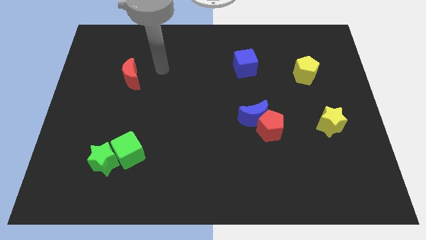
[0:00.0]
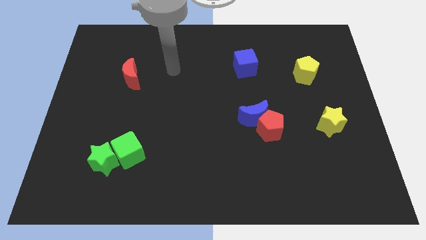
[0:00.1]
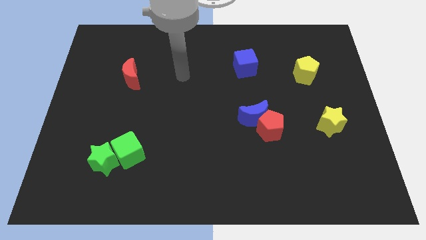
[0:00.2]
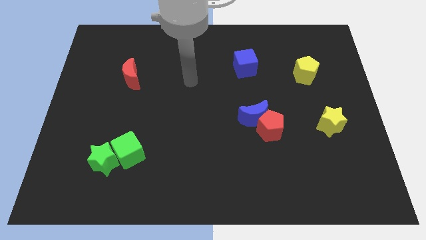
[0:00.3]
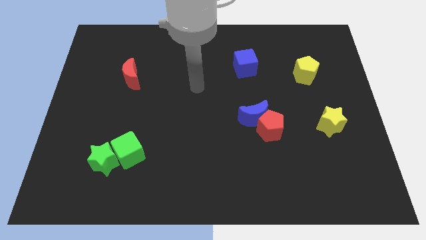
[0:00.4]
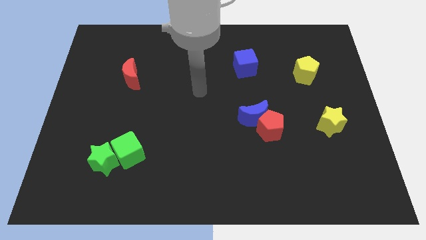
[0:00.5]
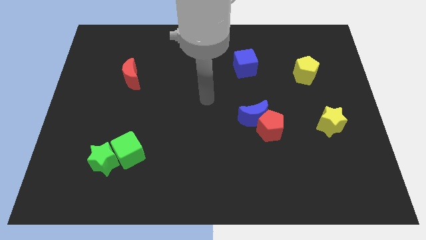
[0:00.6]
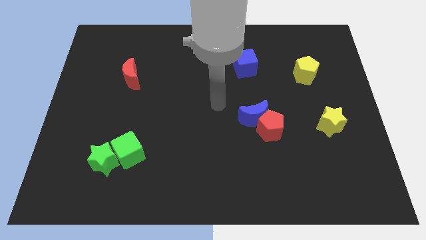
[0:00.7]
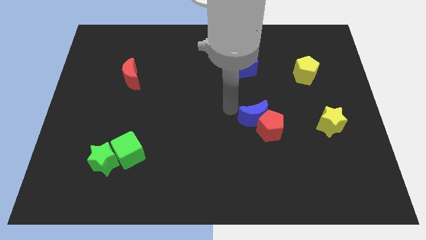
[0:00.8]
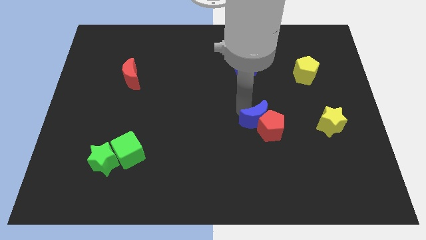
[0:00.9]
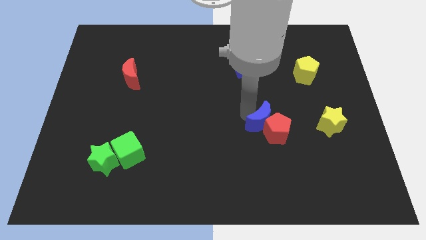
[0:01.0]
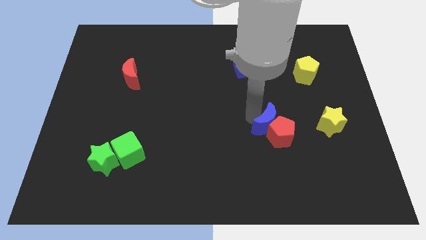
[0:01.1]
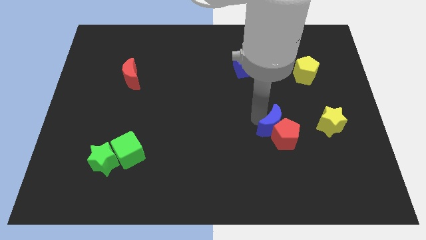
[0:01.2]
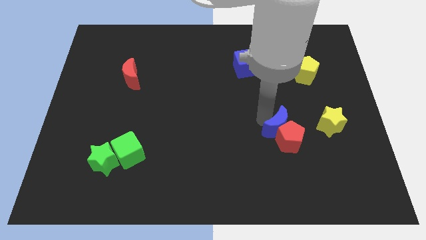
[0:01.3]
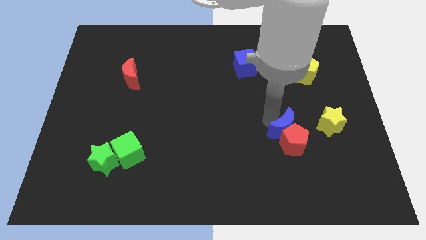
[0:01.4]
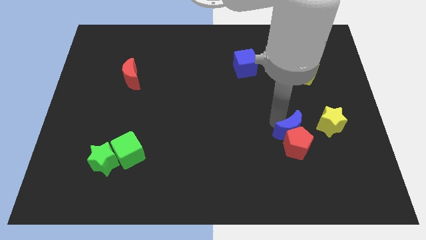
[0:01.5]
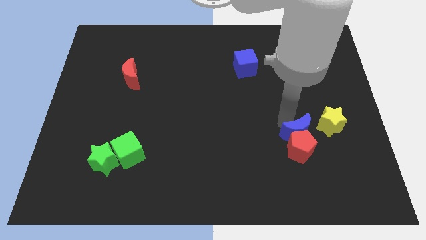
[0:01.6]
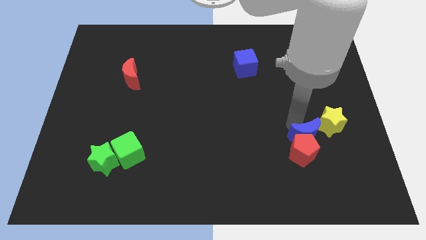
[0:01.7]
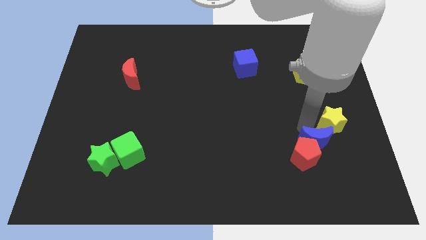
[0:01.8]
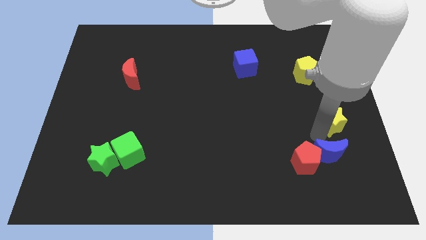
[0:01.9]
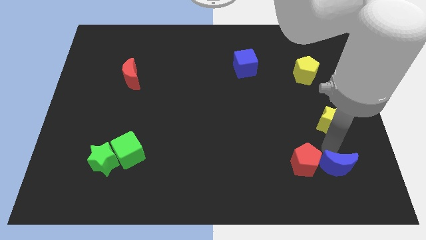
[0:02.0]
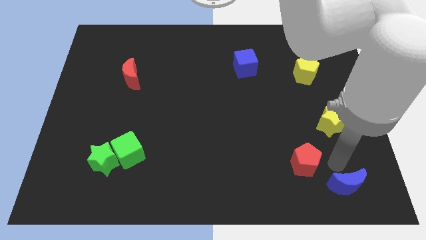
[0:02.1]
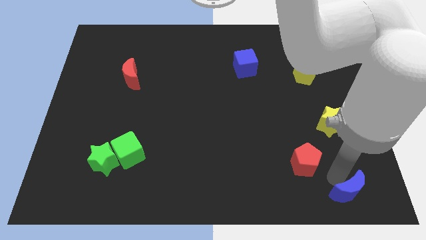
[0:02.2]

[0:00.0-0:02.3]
pull the red pentagon apart from the blue moon

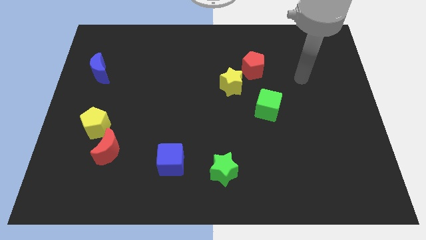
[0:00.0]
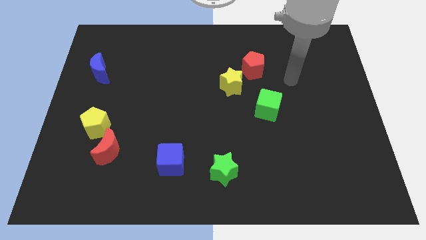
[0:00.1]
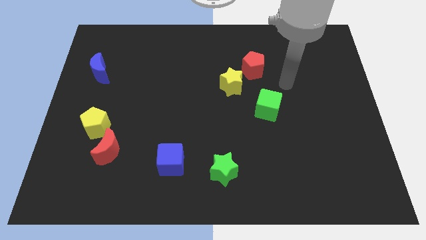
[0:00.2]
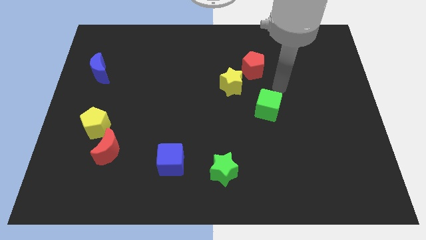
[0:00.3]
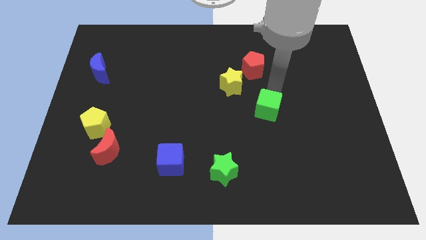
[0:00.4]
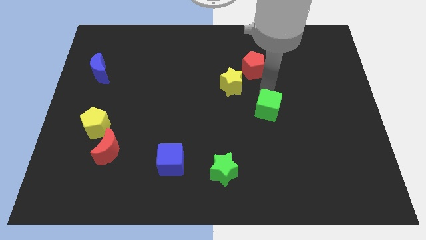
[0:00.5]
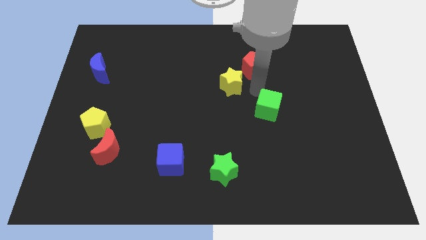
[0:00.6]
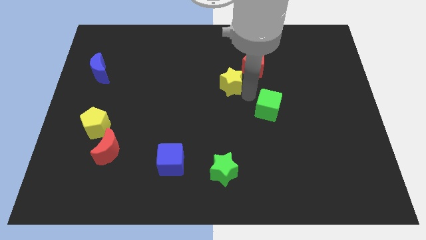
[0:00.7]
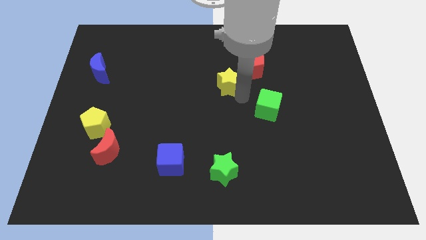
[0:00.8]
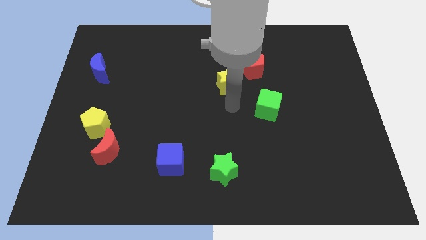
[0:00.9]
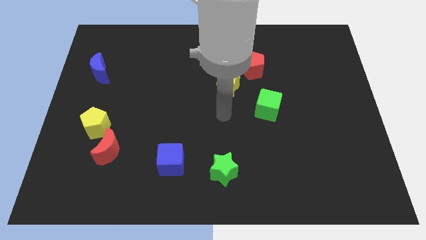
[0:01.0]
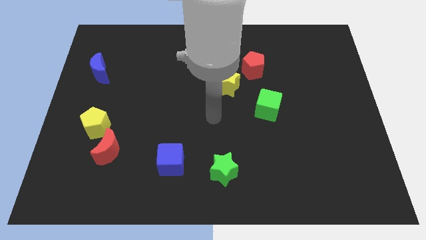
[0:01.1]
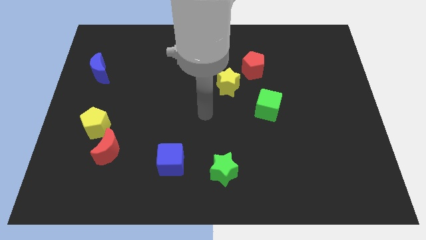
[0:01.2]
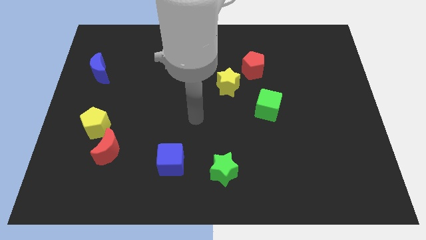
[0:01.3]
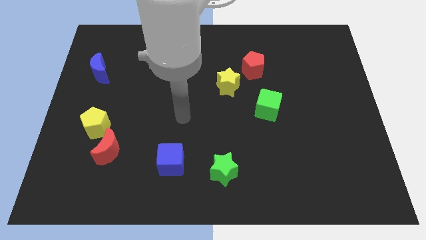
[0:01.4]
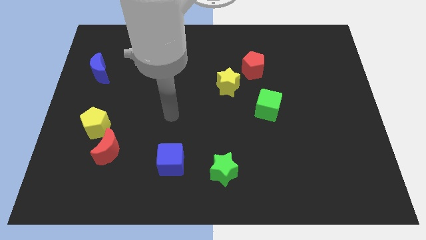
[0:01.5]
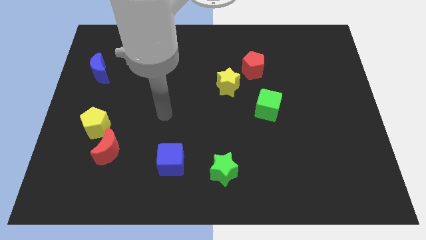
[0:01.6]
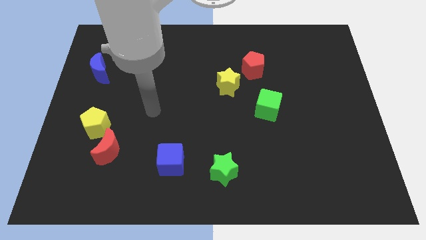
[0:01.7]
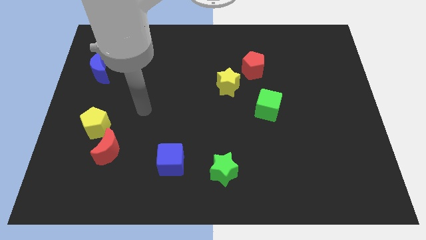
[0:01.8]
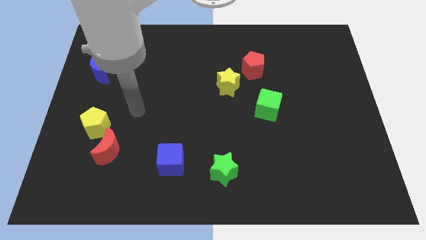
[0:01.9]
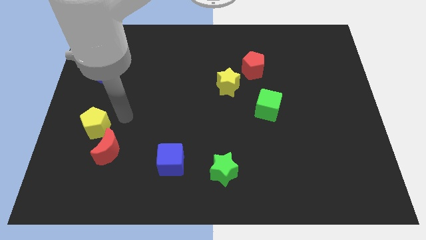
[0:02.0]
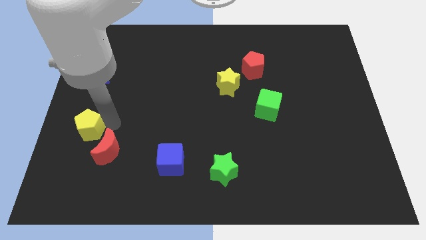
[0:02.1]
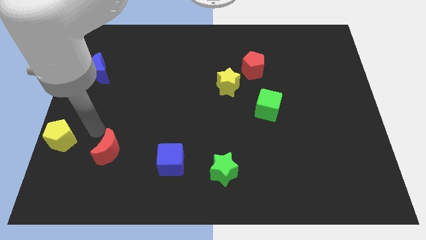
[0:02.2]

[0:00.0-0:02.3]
move the red moon away from the yellow pentagon

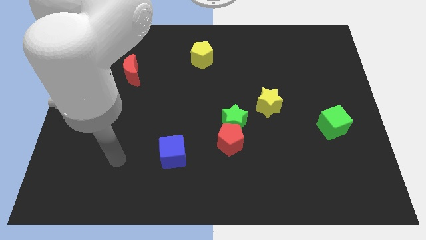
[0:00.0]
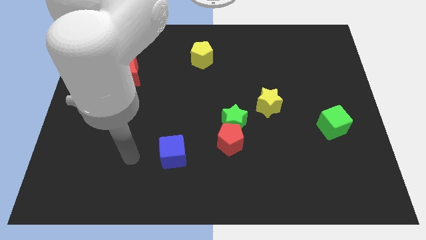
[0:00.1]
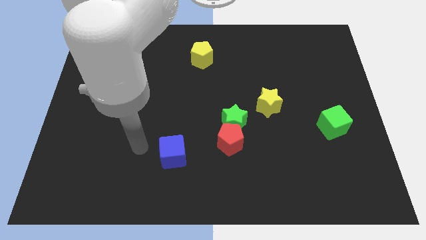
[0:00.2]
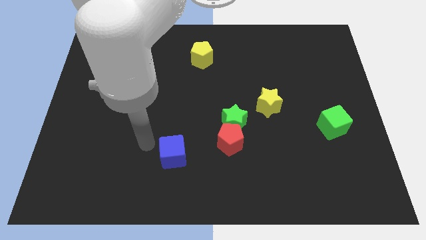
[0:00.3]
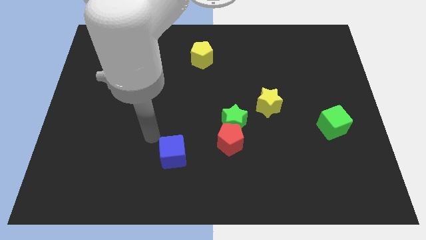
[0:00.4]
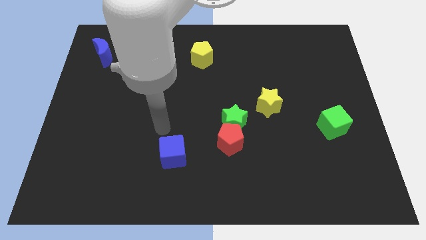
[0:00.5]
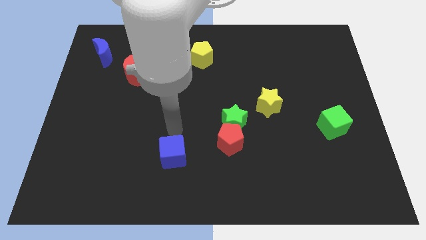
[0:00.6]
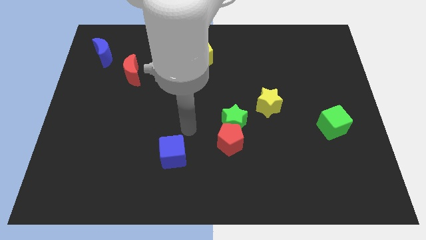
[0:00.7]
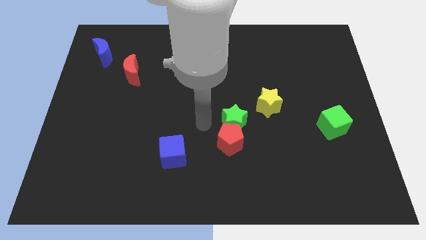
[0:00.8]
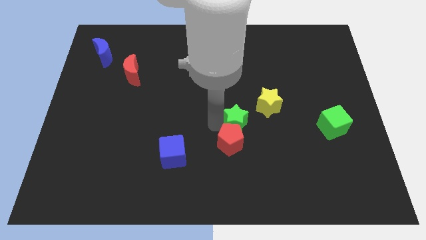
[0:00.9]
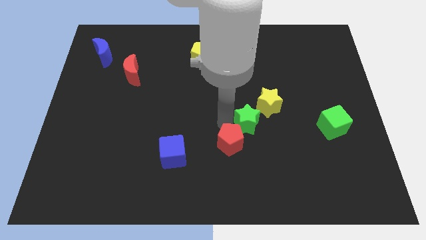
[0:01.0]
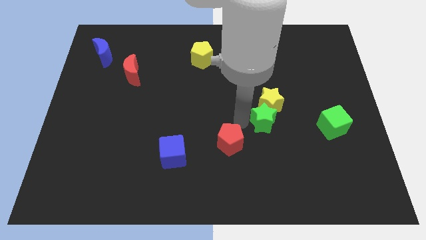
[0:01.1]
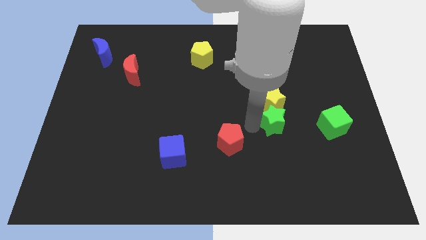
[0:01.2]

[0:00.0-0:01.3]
pull the red pentagon apart from the green star

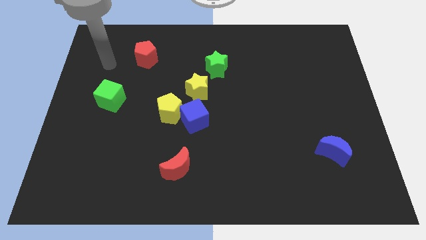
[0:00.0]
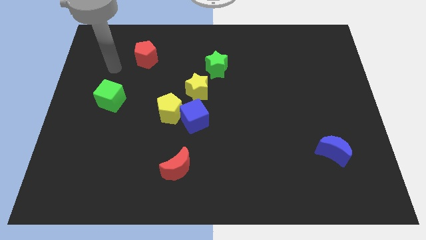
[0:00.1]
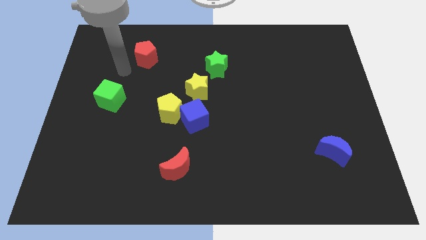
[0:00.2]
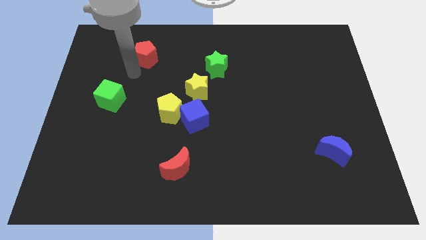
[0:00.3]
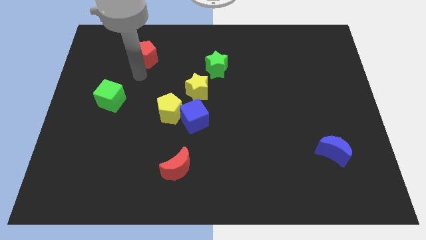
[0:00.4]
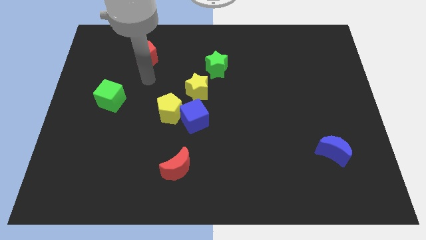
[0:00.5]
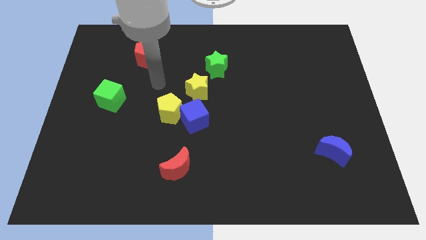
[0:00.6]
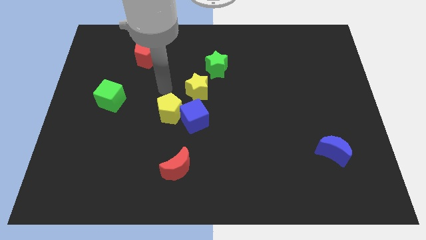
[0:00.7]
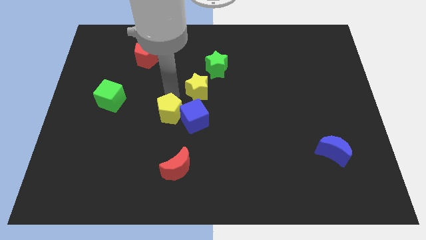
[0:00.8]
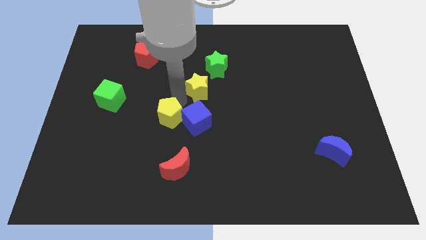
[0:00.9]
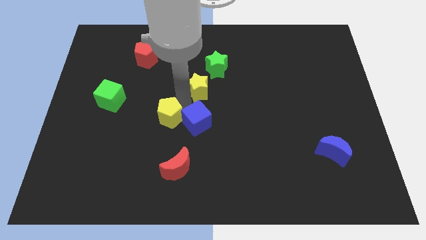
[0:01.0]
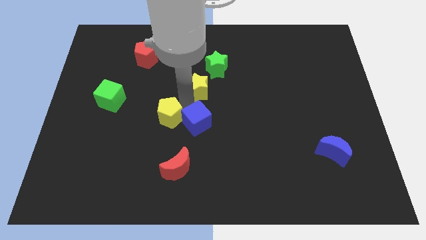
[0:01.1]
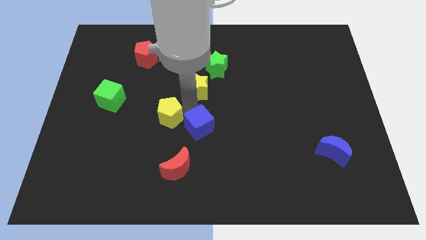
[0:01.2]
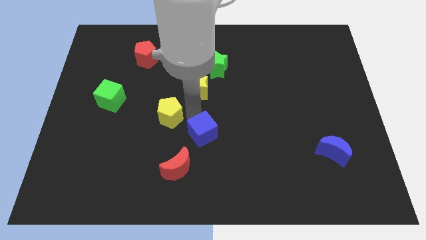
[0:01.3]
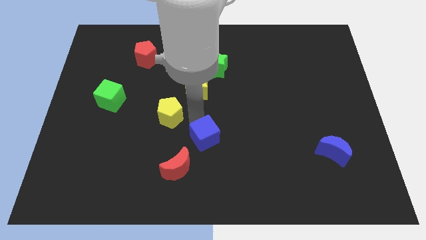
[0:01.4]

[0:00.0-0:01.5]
separate the blue cube from the yellow pentagon and yellow star

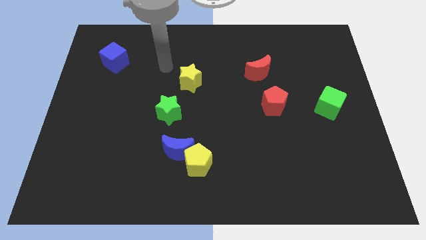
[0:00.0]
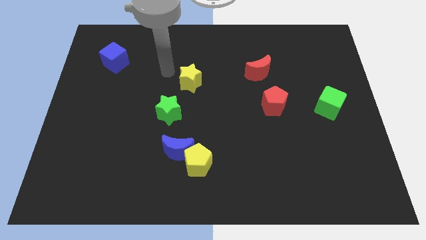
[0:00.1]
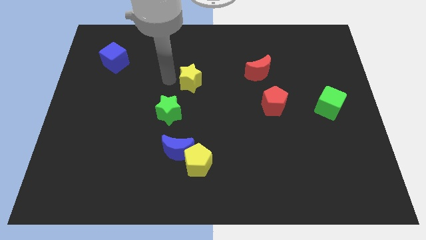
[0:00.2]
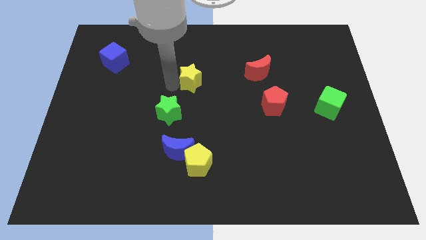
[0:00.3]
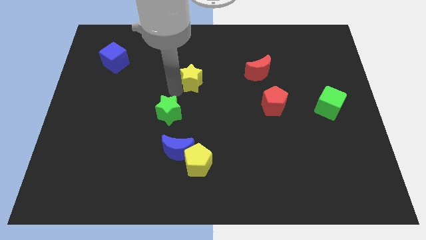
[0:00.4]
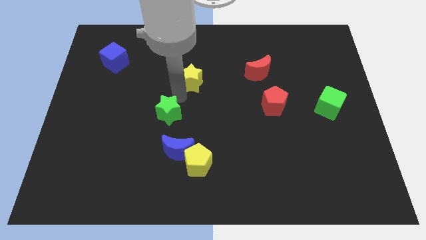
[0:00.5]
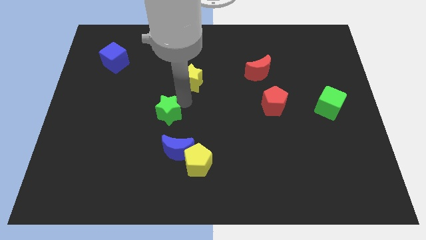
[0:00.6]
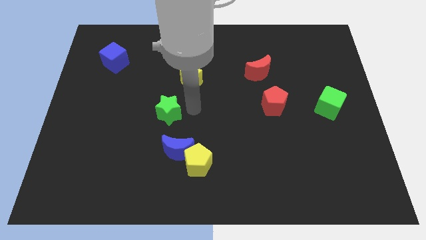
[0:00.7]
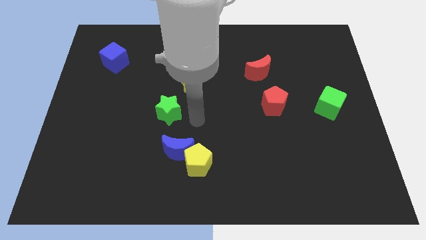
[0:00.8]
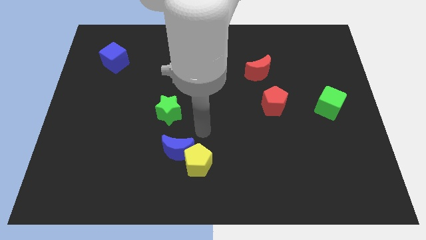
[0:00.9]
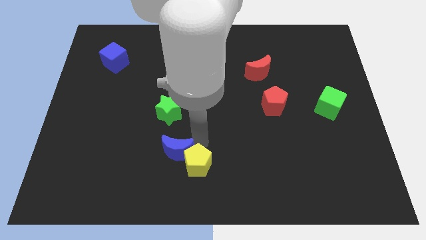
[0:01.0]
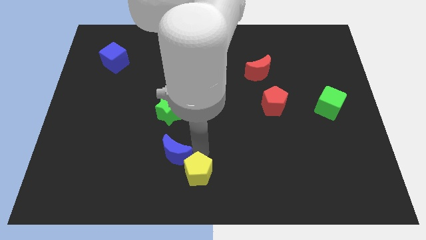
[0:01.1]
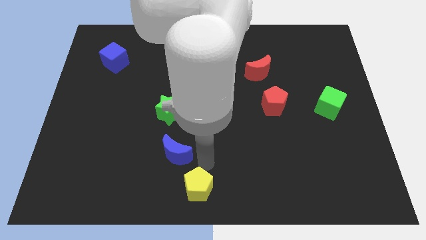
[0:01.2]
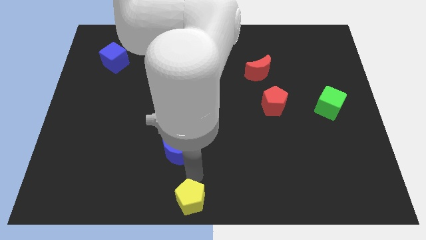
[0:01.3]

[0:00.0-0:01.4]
move the blue moon away from the yellow pentagon

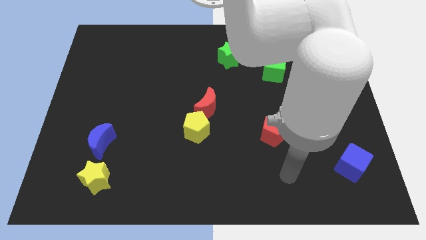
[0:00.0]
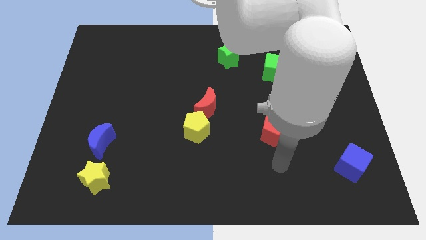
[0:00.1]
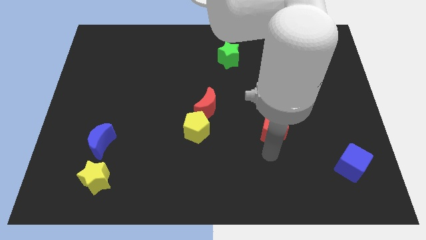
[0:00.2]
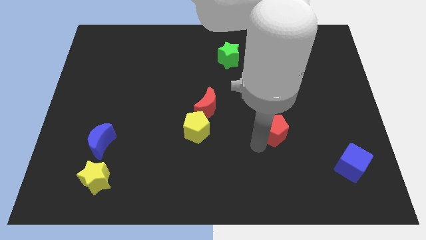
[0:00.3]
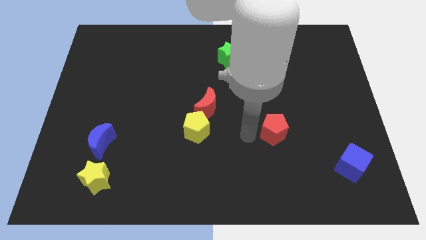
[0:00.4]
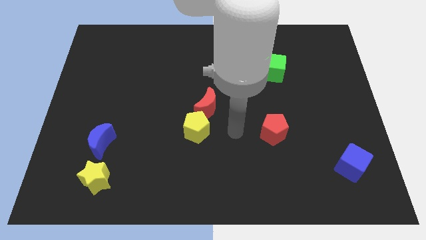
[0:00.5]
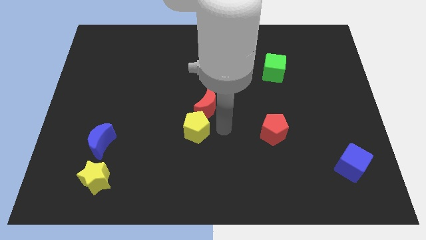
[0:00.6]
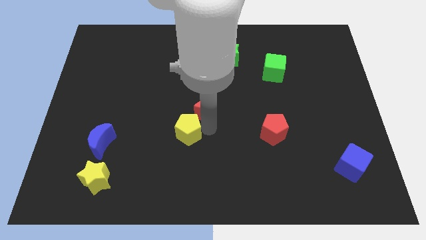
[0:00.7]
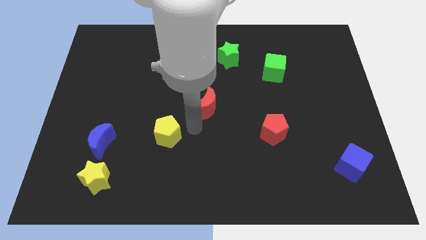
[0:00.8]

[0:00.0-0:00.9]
pull the red moon apart from the yellow pentagon
